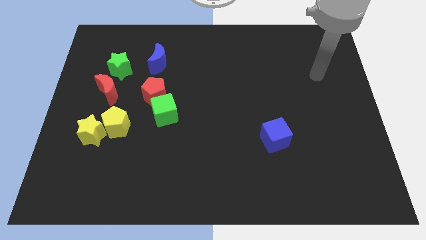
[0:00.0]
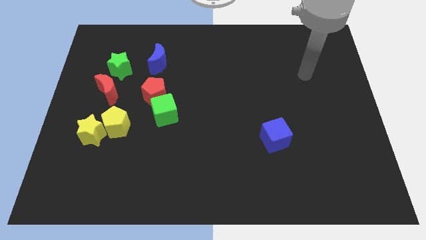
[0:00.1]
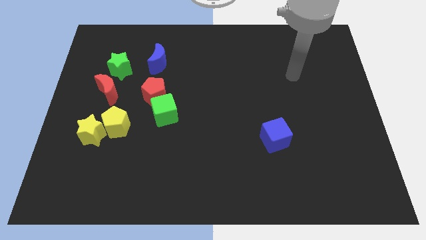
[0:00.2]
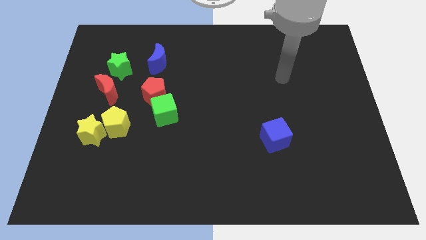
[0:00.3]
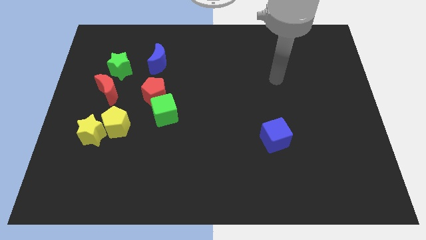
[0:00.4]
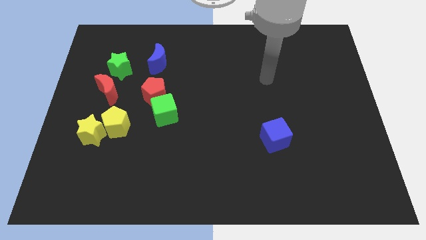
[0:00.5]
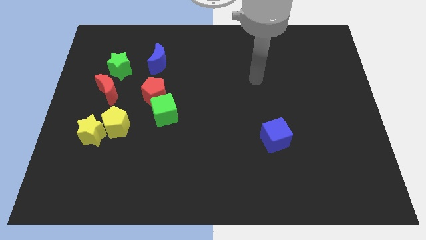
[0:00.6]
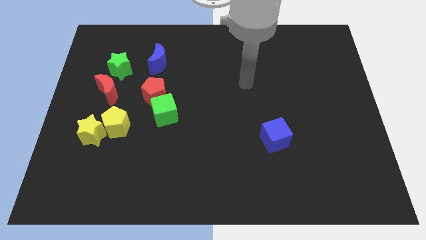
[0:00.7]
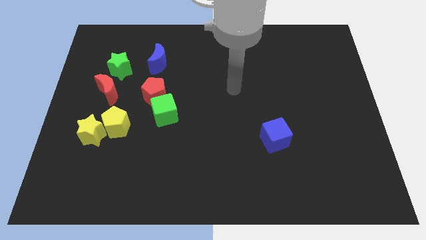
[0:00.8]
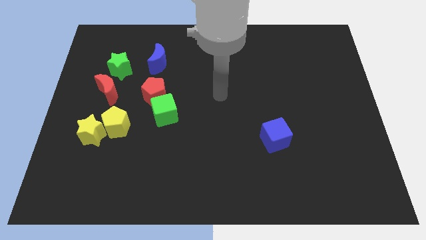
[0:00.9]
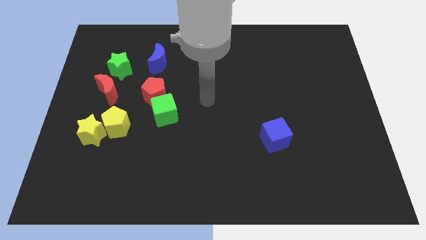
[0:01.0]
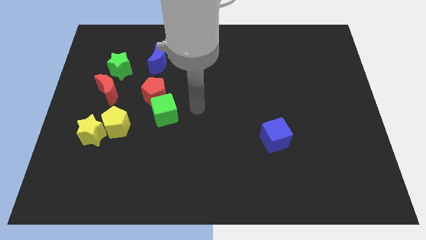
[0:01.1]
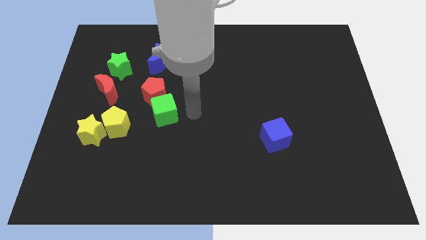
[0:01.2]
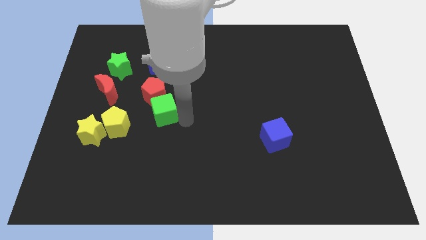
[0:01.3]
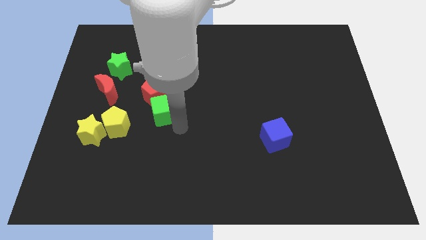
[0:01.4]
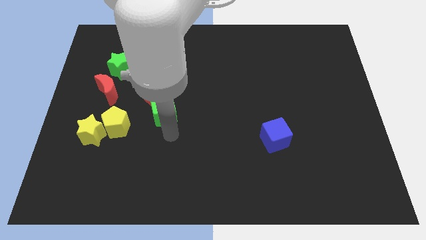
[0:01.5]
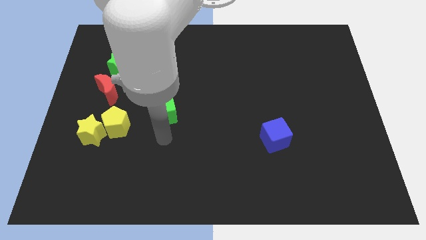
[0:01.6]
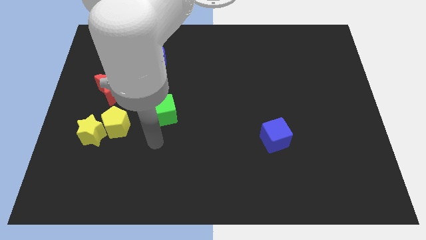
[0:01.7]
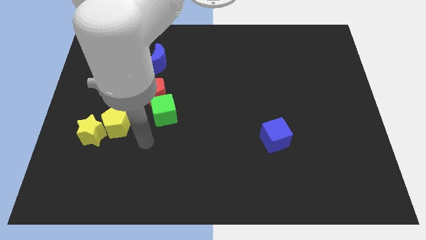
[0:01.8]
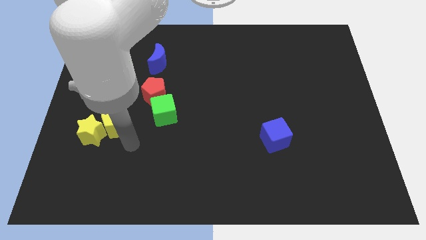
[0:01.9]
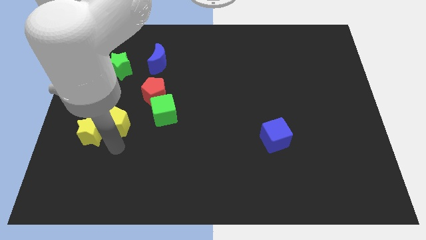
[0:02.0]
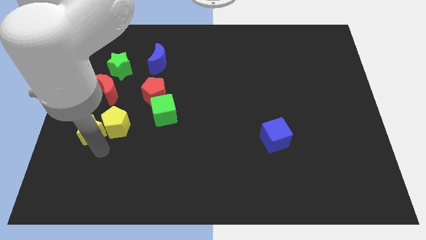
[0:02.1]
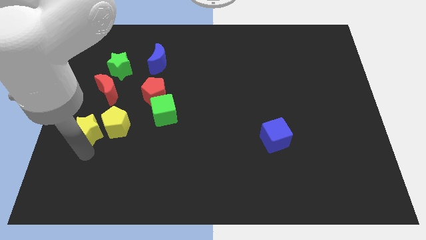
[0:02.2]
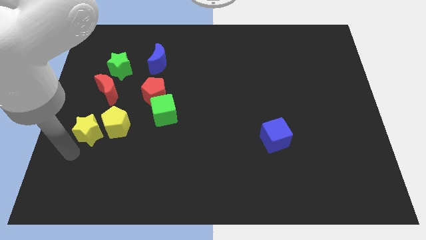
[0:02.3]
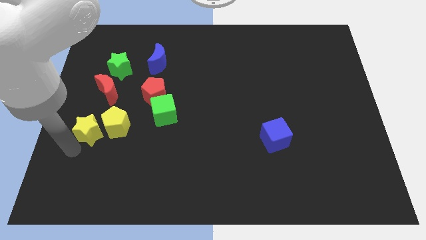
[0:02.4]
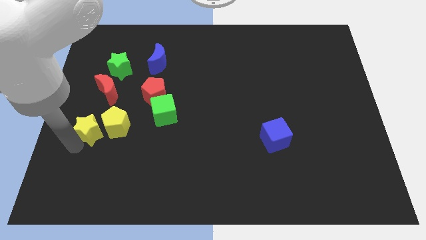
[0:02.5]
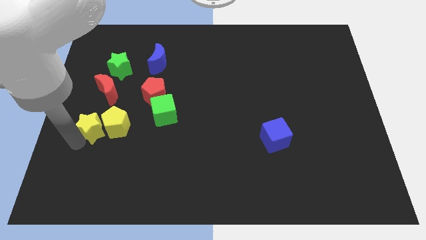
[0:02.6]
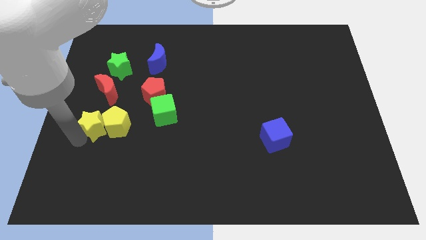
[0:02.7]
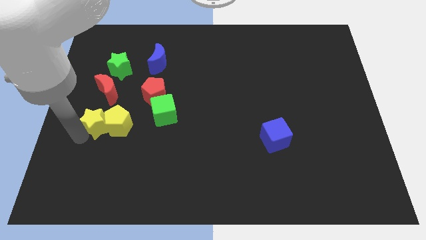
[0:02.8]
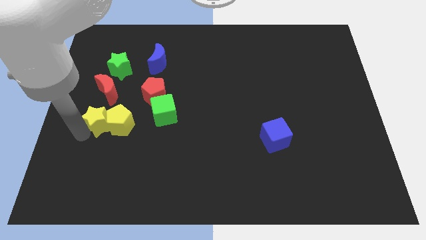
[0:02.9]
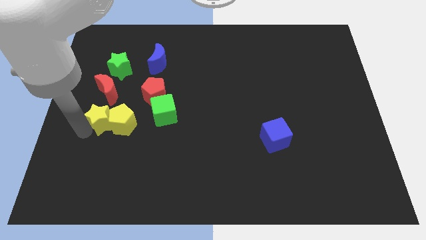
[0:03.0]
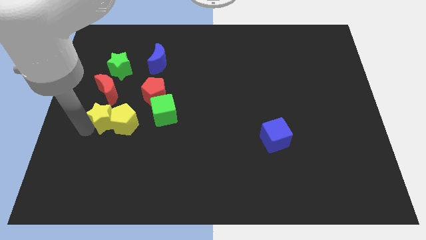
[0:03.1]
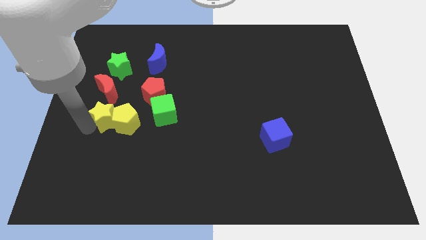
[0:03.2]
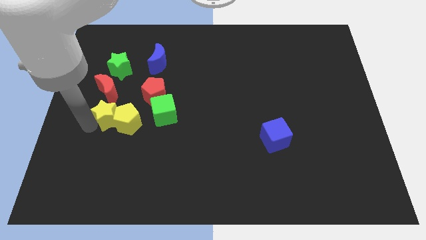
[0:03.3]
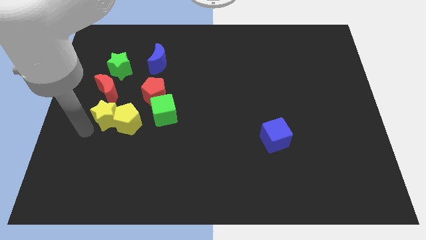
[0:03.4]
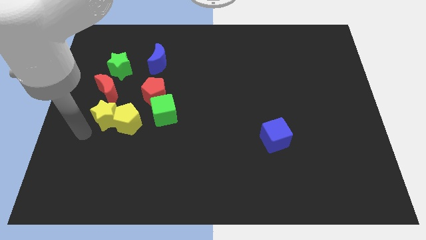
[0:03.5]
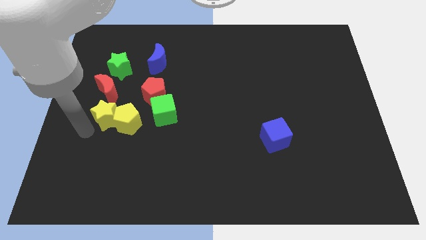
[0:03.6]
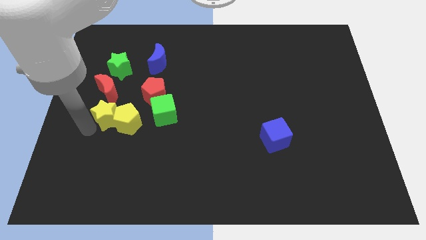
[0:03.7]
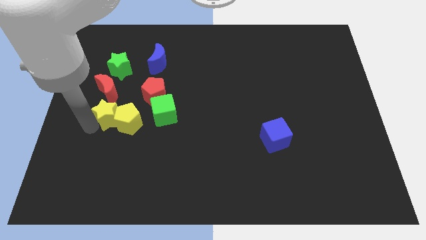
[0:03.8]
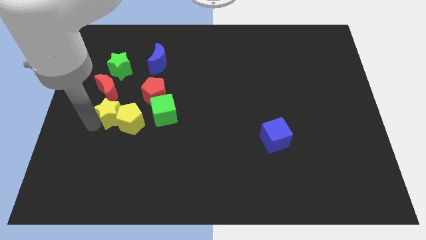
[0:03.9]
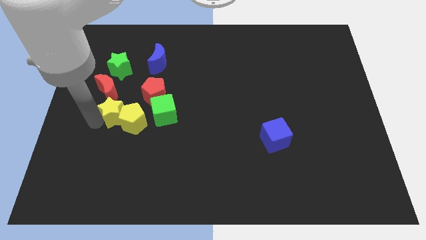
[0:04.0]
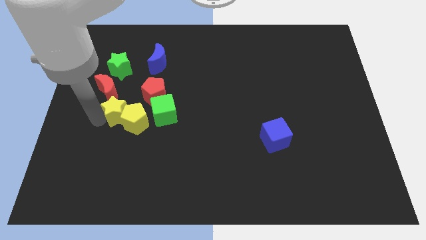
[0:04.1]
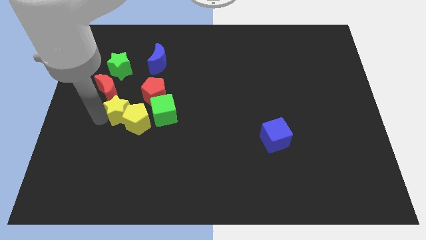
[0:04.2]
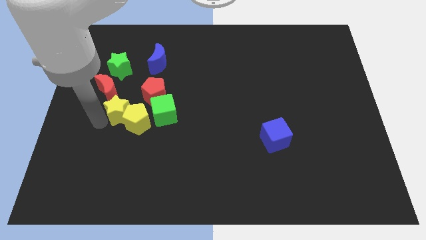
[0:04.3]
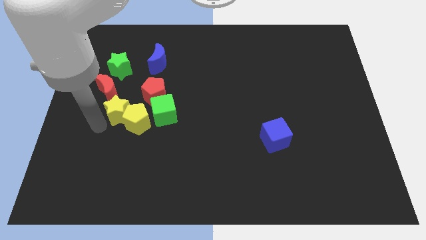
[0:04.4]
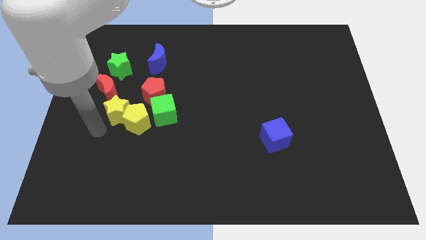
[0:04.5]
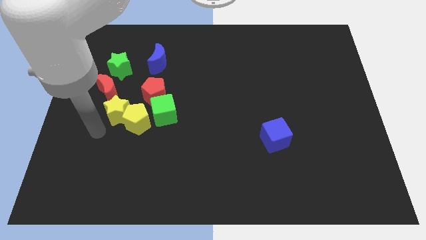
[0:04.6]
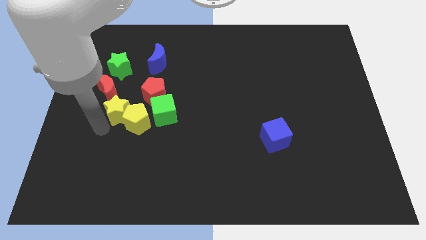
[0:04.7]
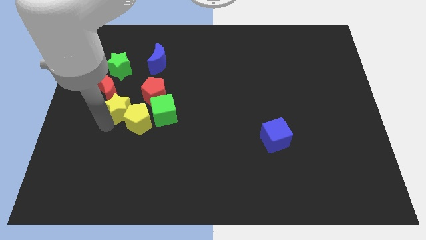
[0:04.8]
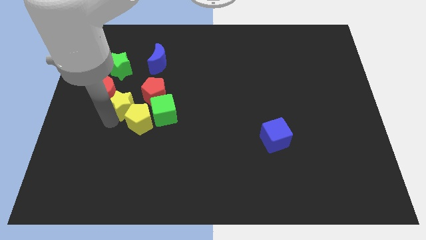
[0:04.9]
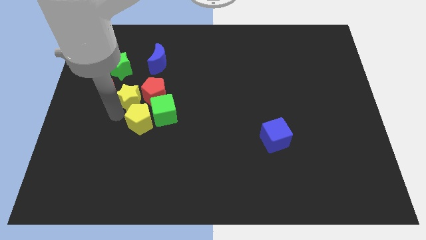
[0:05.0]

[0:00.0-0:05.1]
put the yellow star towards the red pentagon

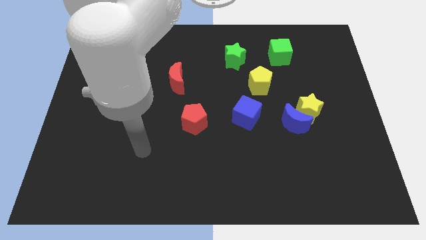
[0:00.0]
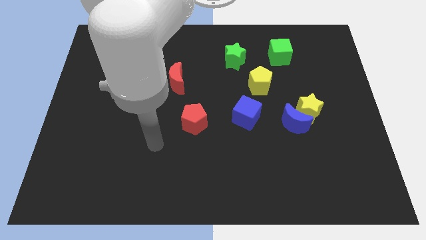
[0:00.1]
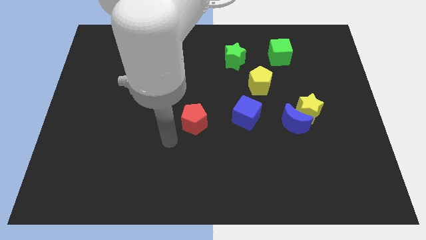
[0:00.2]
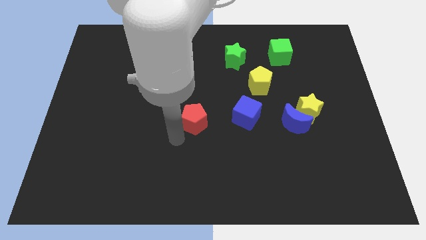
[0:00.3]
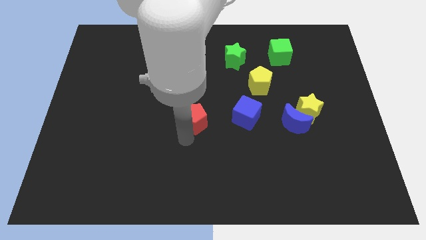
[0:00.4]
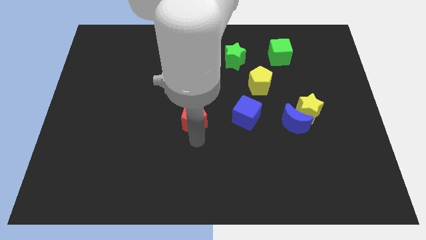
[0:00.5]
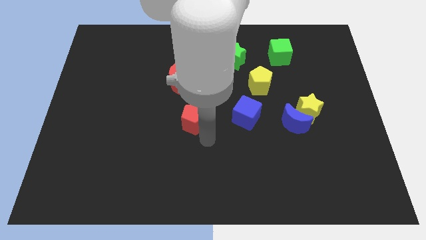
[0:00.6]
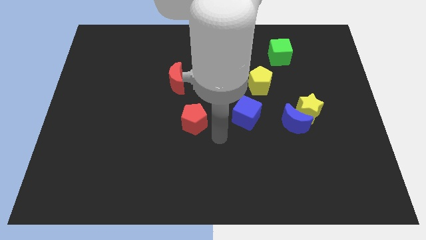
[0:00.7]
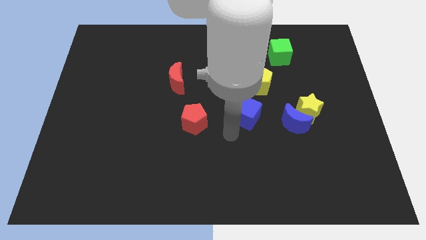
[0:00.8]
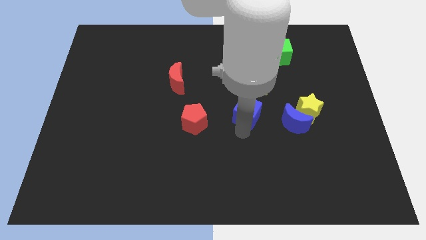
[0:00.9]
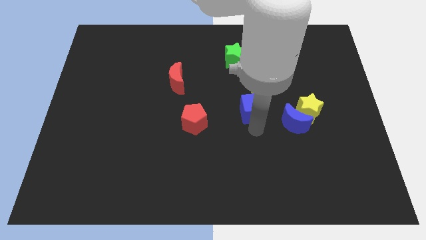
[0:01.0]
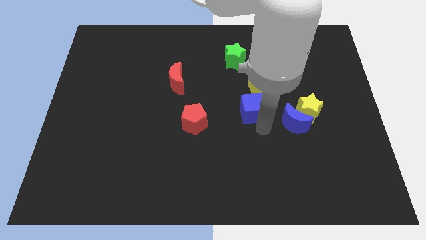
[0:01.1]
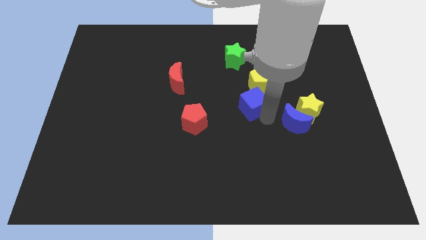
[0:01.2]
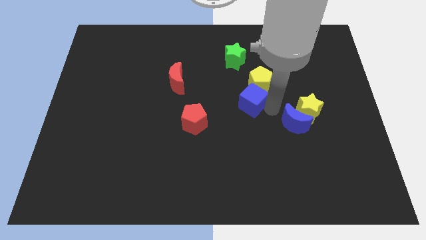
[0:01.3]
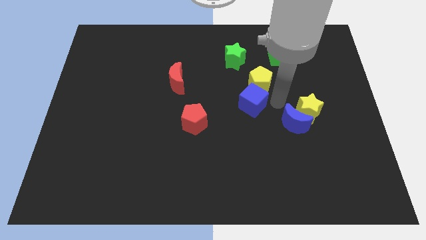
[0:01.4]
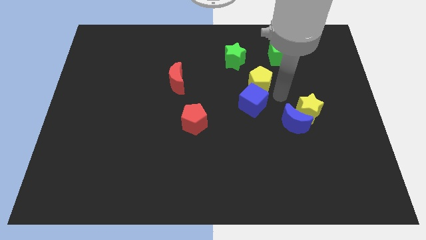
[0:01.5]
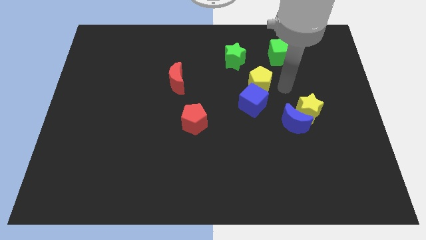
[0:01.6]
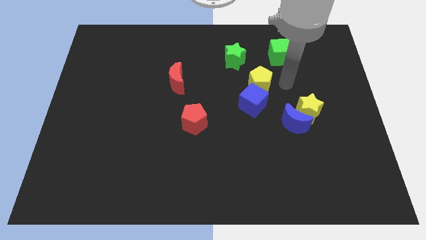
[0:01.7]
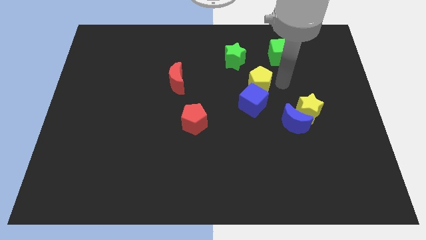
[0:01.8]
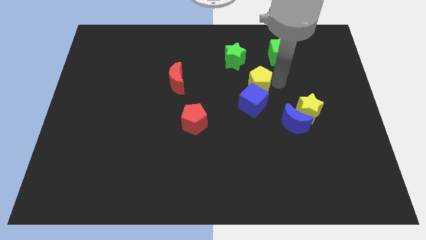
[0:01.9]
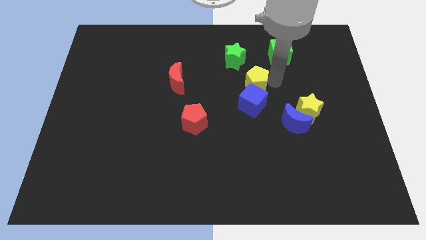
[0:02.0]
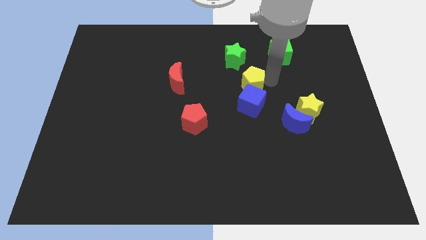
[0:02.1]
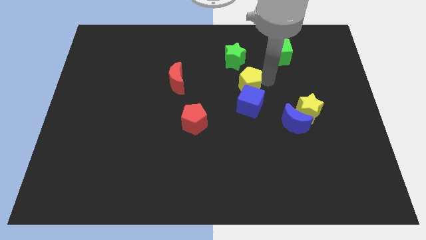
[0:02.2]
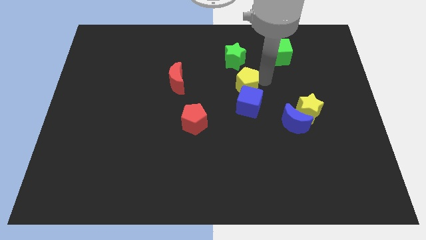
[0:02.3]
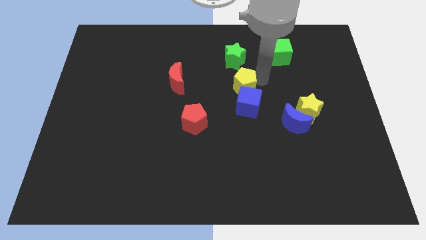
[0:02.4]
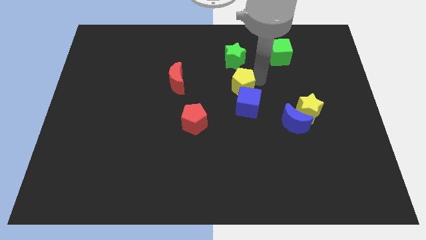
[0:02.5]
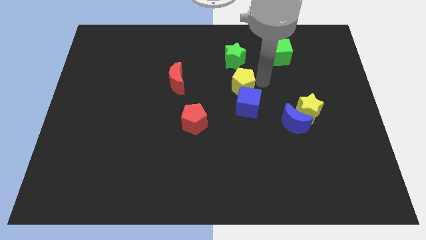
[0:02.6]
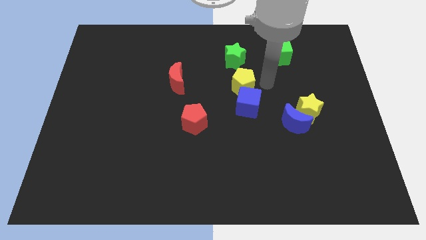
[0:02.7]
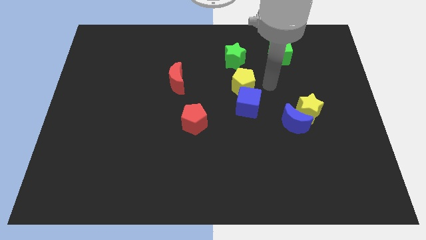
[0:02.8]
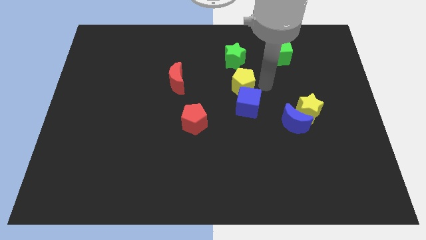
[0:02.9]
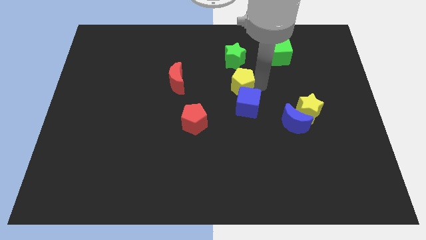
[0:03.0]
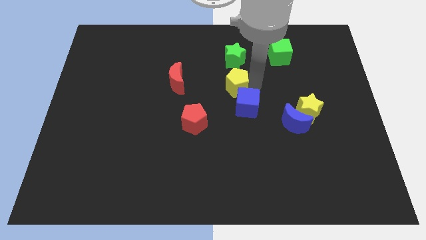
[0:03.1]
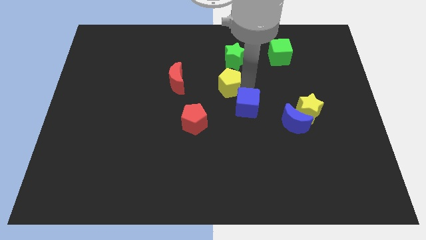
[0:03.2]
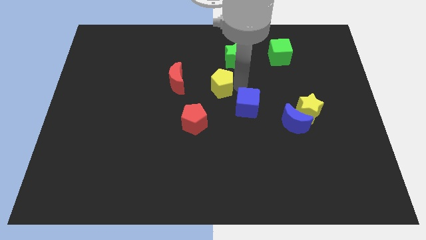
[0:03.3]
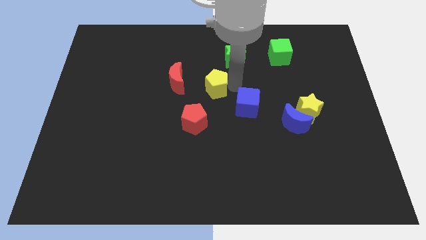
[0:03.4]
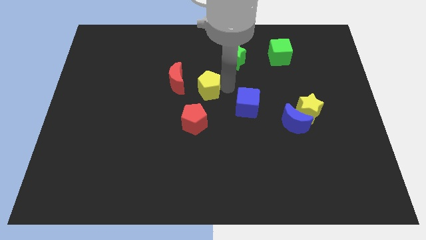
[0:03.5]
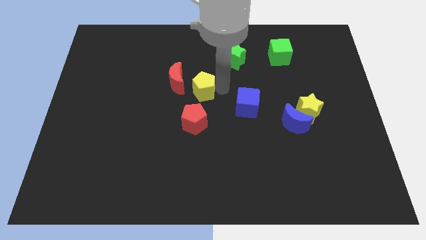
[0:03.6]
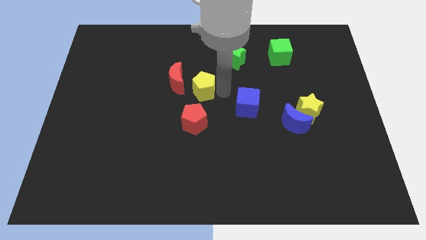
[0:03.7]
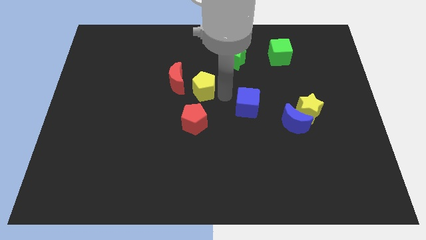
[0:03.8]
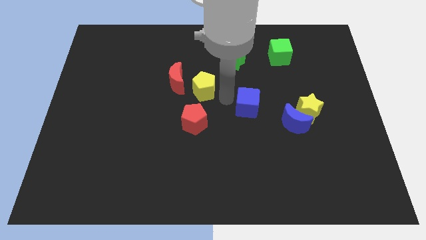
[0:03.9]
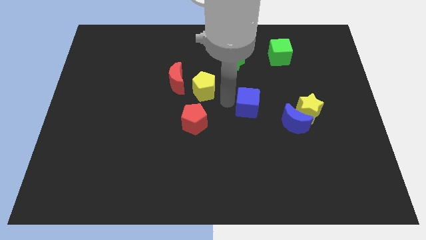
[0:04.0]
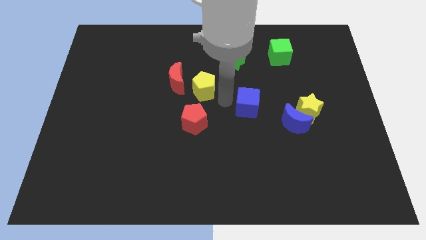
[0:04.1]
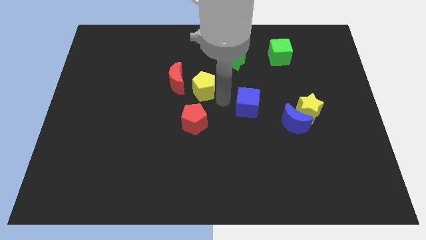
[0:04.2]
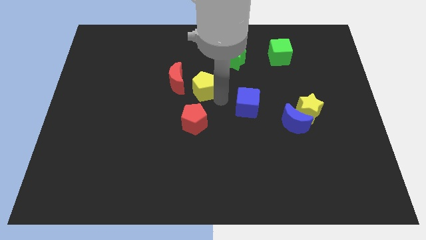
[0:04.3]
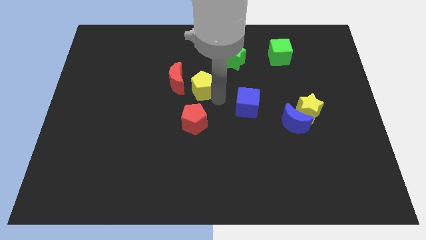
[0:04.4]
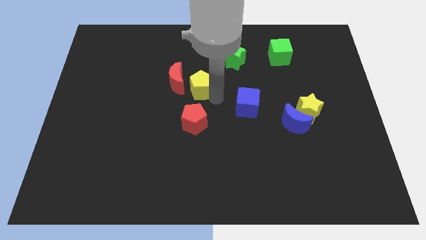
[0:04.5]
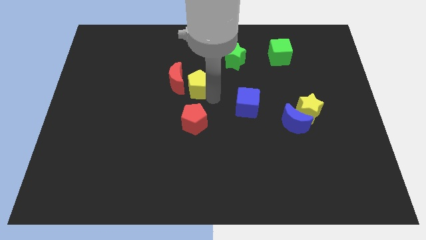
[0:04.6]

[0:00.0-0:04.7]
slide the yellow pentagon to the red moon
